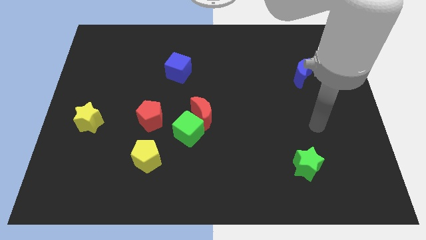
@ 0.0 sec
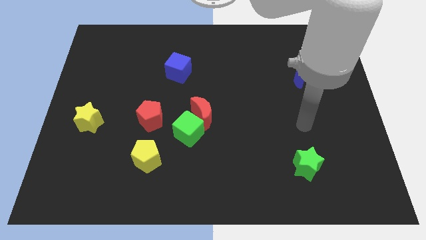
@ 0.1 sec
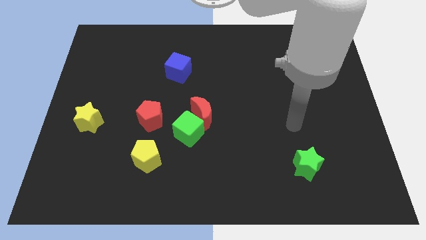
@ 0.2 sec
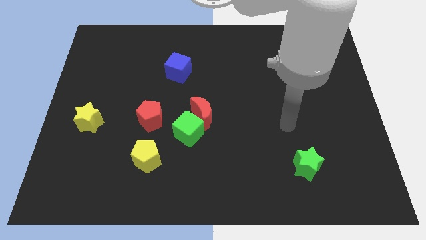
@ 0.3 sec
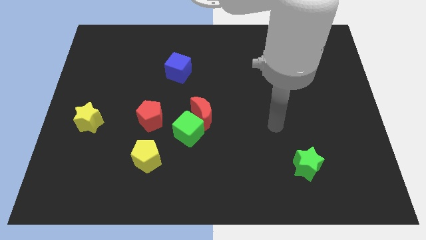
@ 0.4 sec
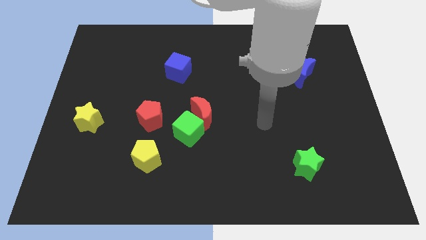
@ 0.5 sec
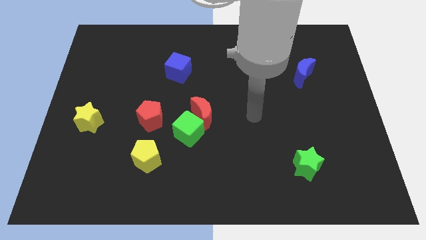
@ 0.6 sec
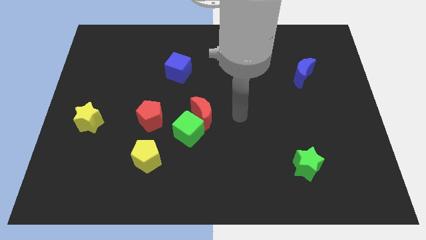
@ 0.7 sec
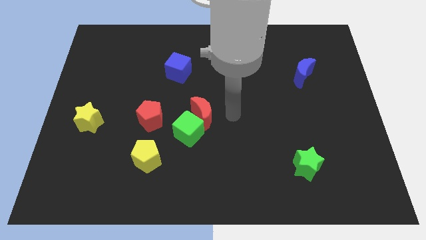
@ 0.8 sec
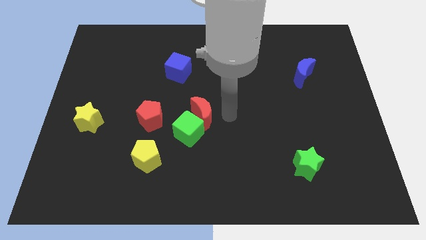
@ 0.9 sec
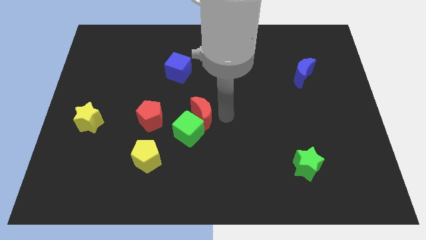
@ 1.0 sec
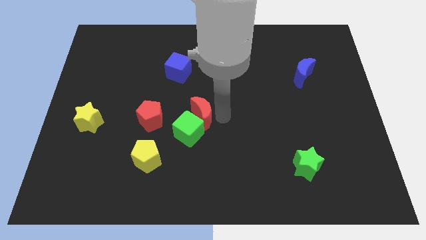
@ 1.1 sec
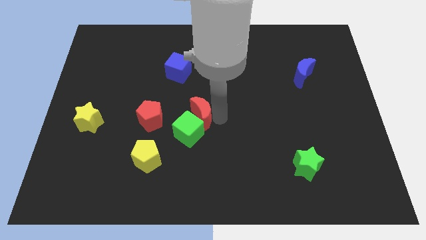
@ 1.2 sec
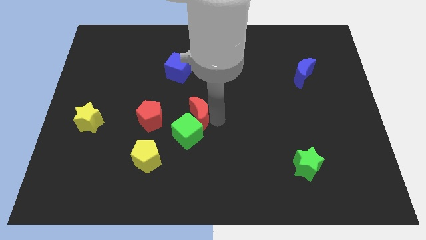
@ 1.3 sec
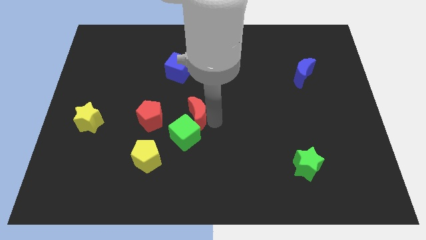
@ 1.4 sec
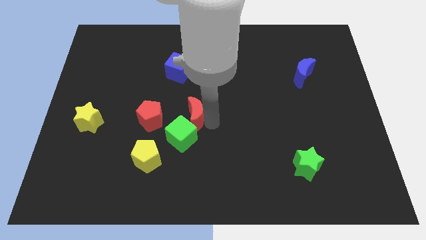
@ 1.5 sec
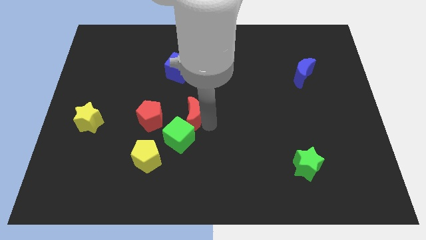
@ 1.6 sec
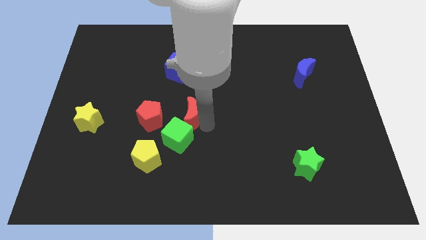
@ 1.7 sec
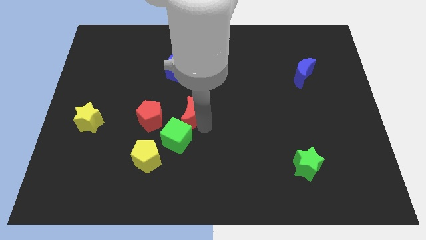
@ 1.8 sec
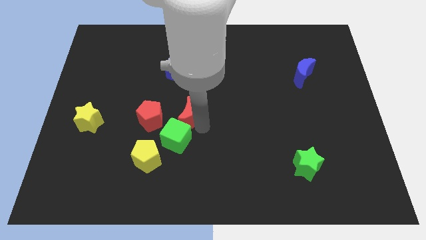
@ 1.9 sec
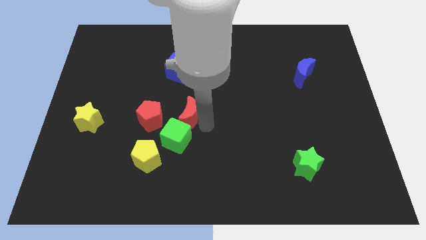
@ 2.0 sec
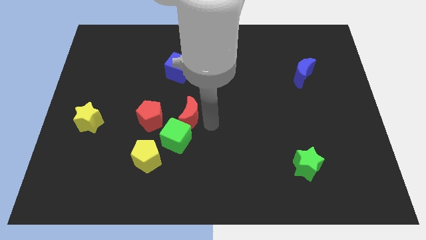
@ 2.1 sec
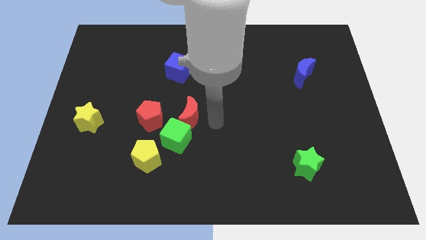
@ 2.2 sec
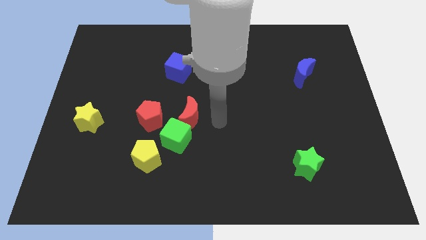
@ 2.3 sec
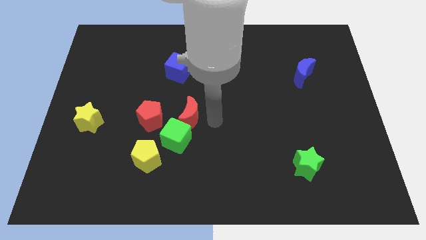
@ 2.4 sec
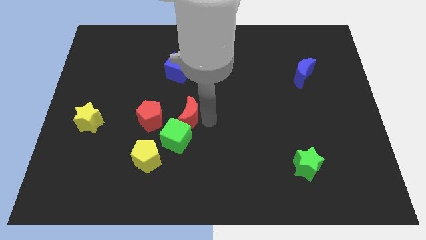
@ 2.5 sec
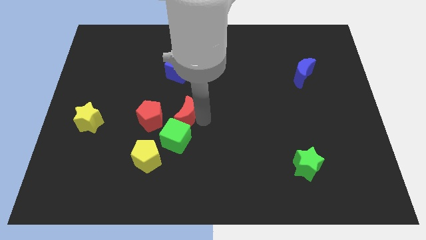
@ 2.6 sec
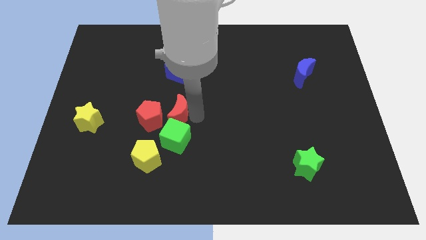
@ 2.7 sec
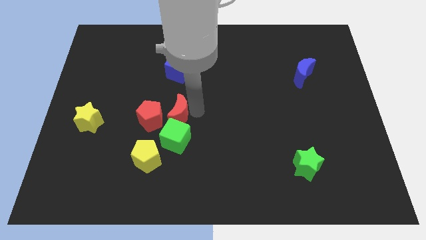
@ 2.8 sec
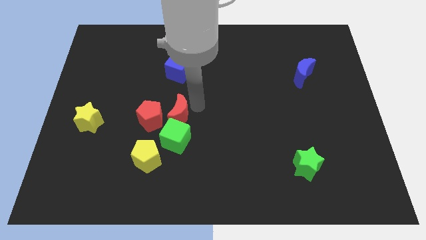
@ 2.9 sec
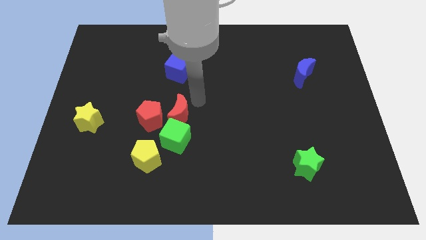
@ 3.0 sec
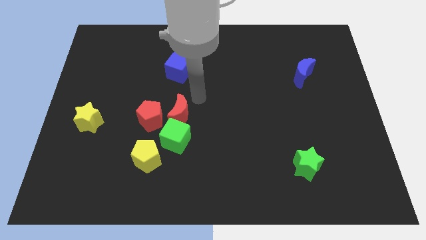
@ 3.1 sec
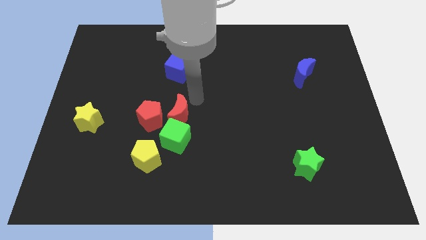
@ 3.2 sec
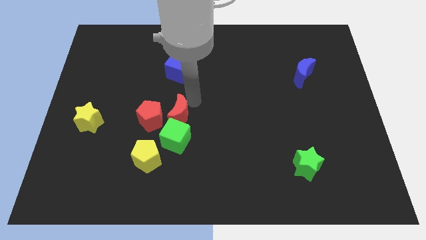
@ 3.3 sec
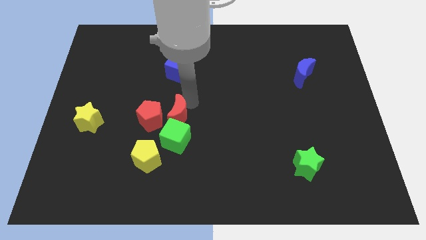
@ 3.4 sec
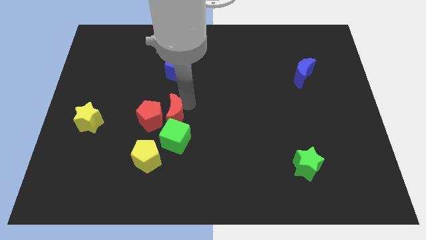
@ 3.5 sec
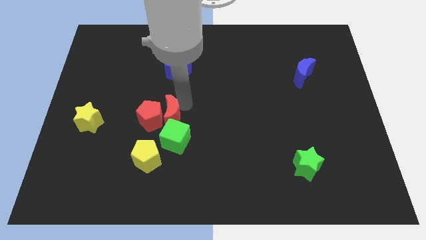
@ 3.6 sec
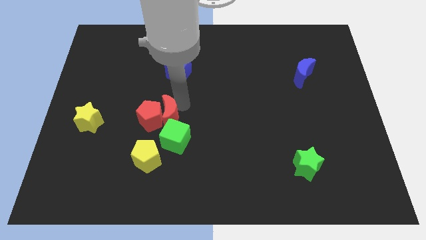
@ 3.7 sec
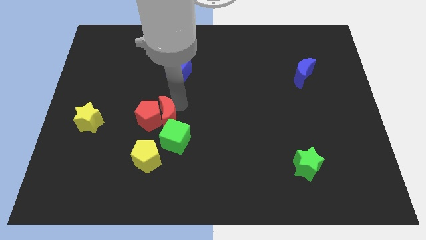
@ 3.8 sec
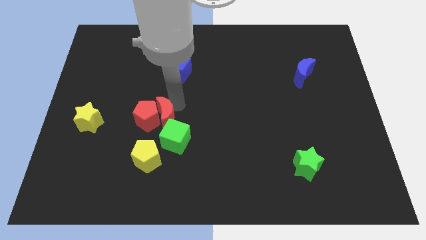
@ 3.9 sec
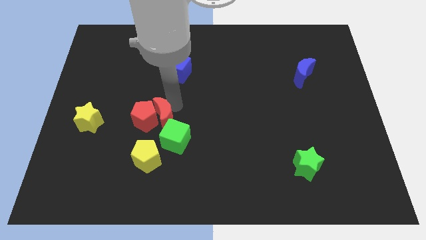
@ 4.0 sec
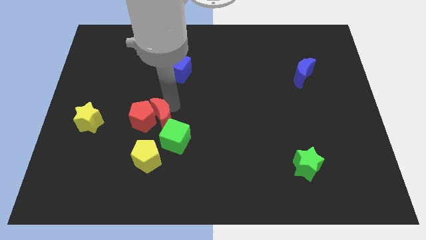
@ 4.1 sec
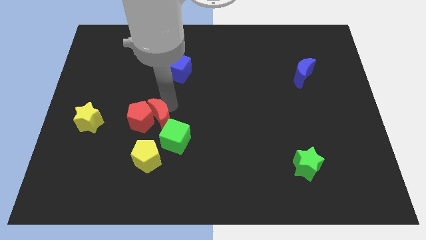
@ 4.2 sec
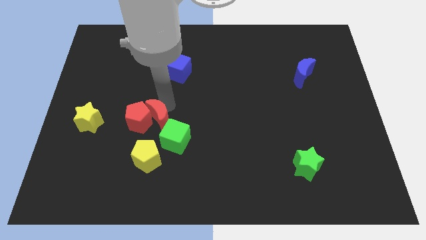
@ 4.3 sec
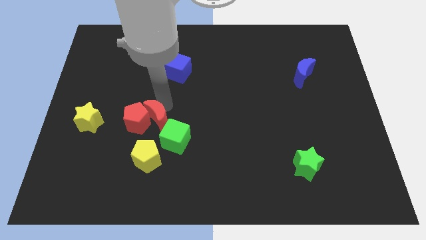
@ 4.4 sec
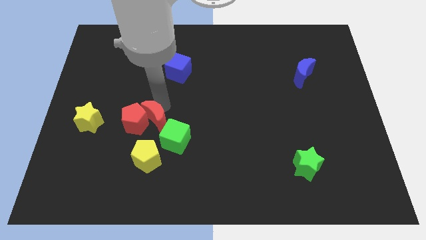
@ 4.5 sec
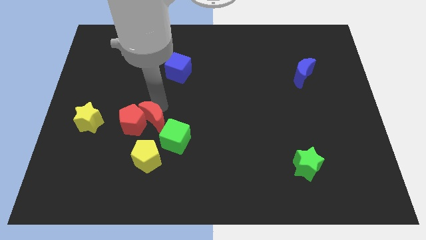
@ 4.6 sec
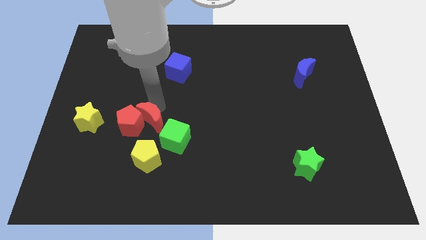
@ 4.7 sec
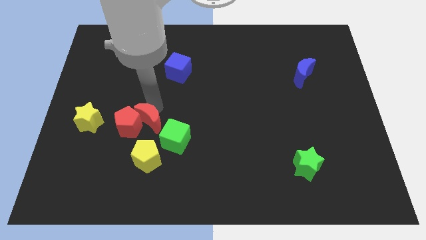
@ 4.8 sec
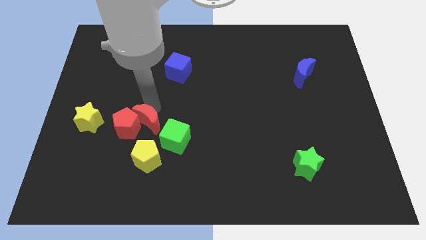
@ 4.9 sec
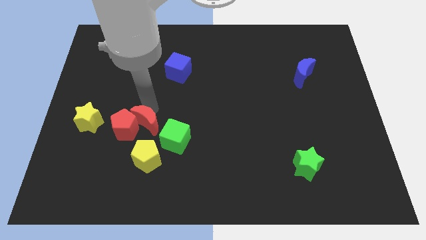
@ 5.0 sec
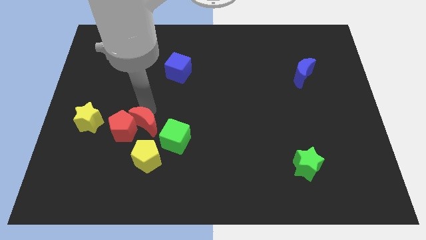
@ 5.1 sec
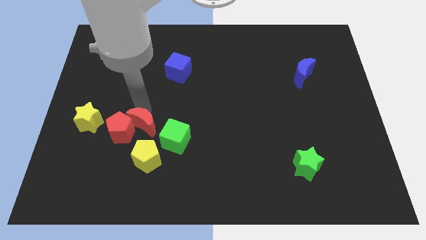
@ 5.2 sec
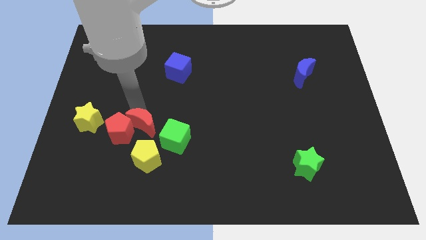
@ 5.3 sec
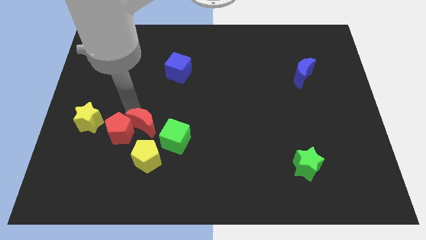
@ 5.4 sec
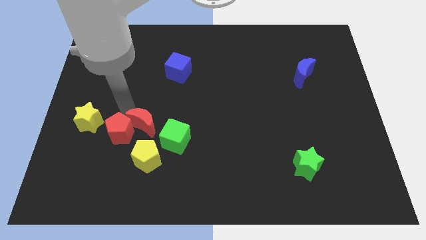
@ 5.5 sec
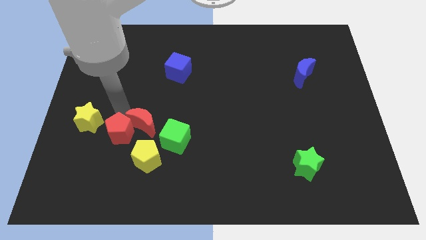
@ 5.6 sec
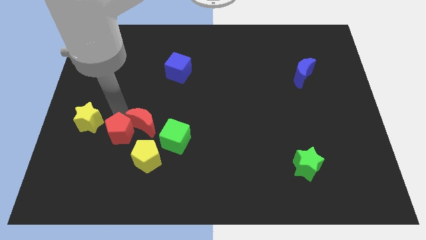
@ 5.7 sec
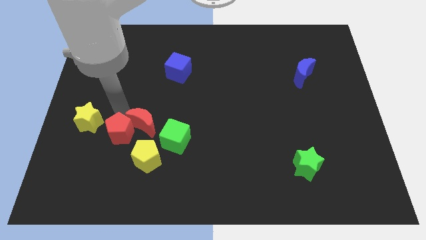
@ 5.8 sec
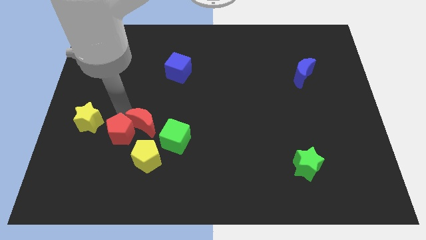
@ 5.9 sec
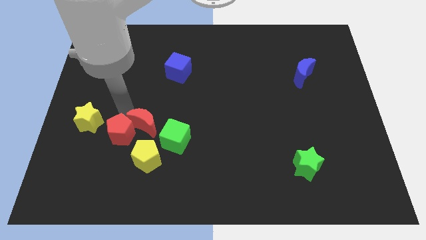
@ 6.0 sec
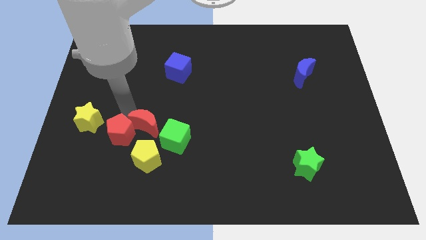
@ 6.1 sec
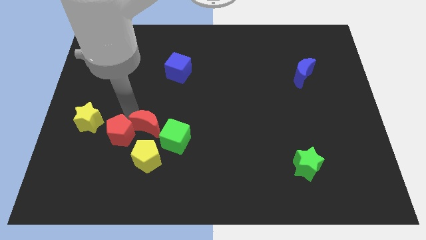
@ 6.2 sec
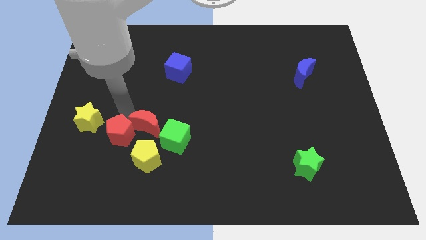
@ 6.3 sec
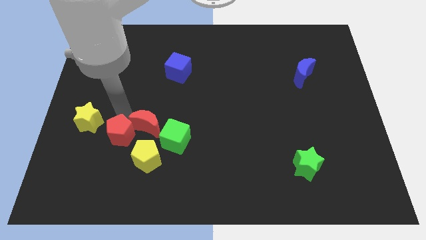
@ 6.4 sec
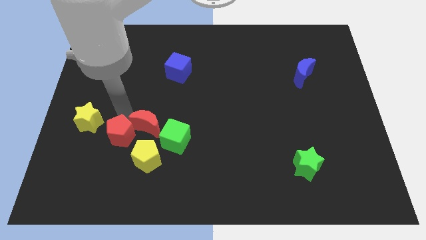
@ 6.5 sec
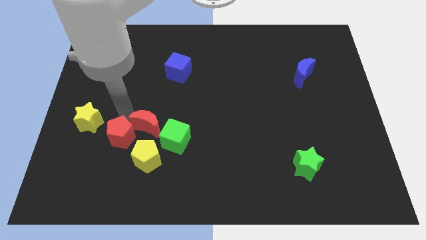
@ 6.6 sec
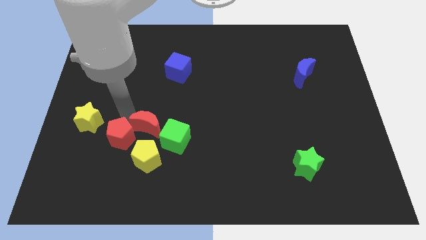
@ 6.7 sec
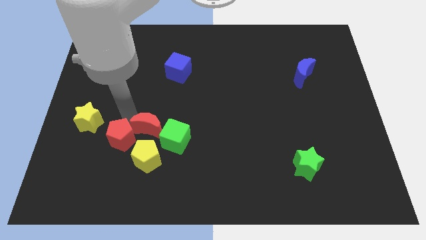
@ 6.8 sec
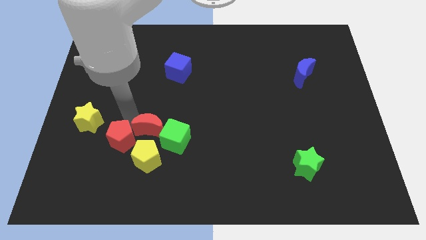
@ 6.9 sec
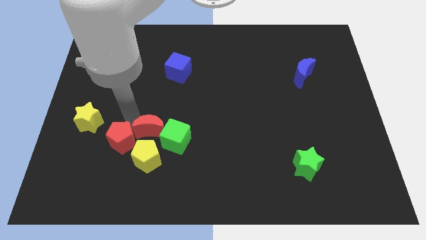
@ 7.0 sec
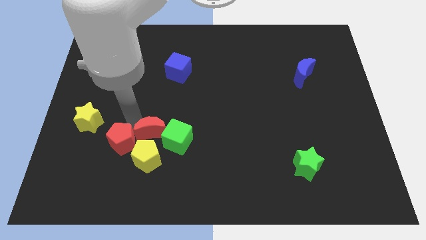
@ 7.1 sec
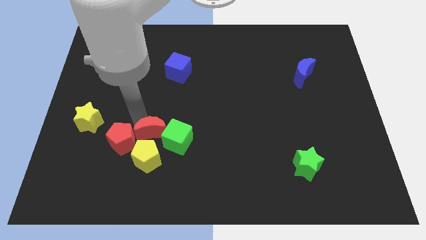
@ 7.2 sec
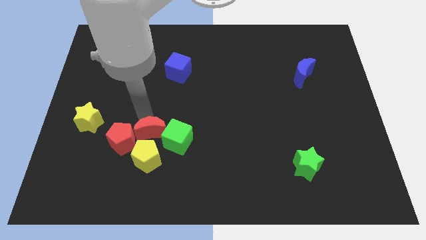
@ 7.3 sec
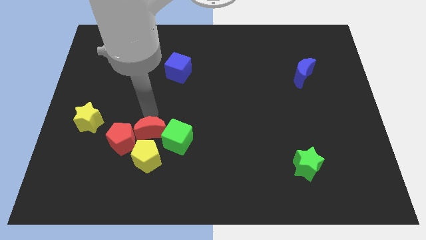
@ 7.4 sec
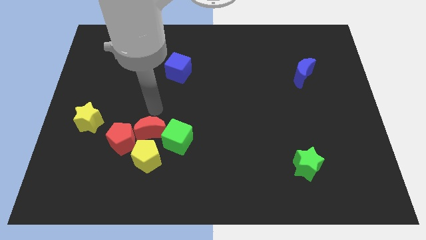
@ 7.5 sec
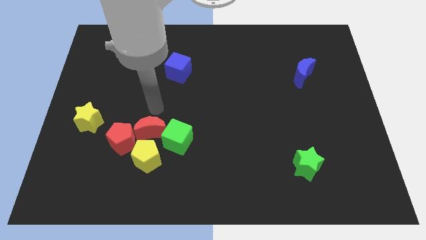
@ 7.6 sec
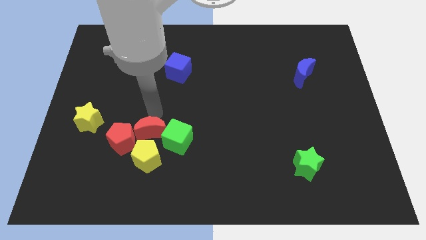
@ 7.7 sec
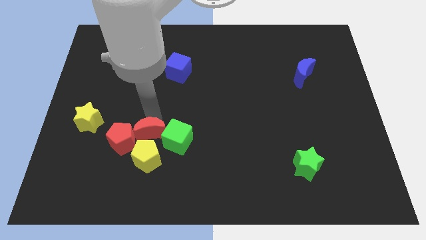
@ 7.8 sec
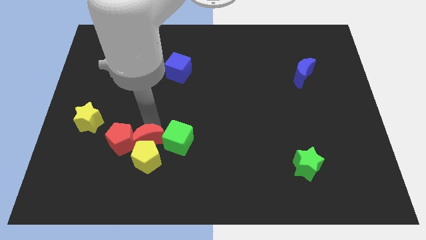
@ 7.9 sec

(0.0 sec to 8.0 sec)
move the red moon next to the yellow pentagon
